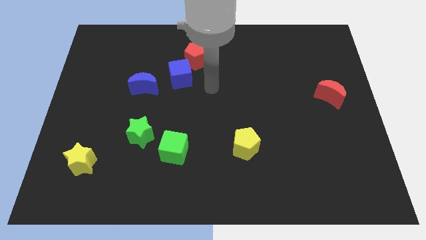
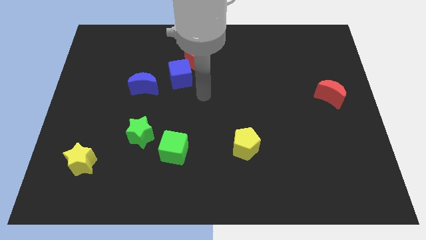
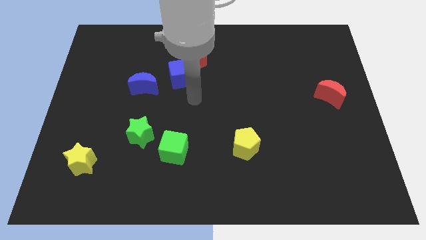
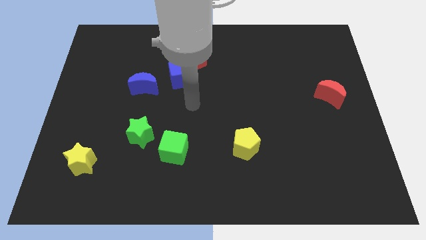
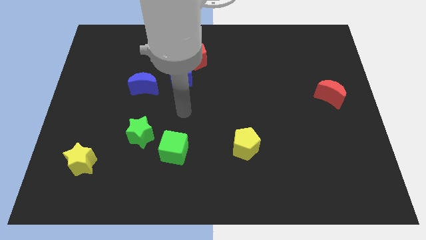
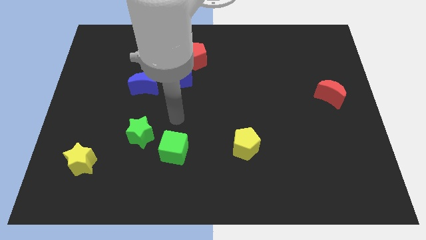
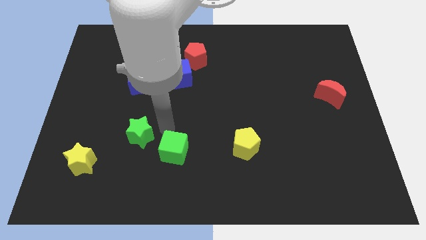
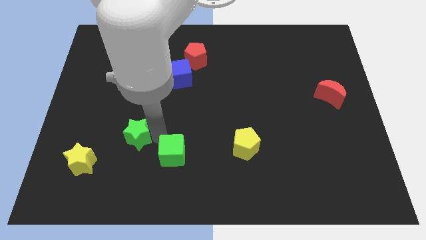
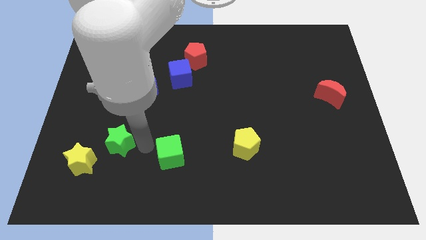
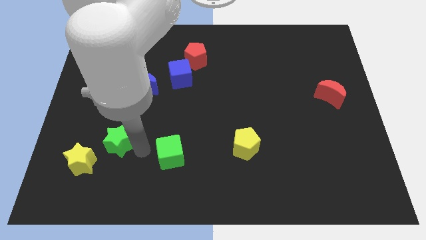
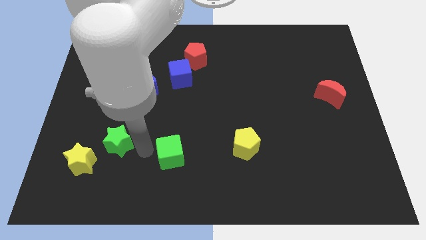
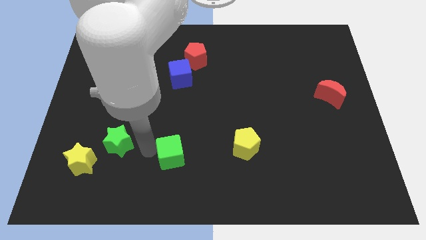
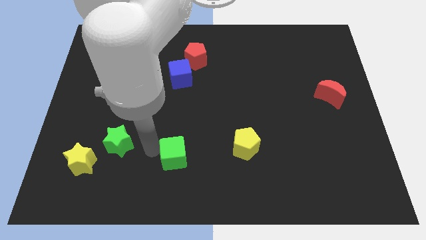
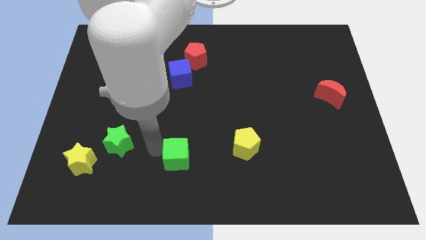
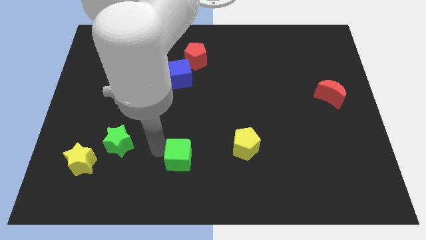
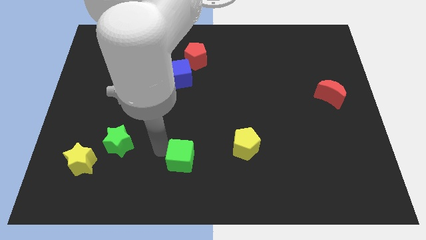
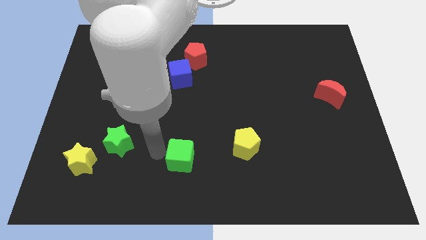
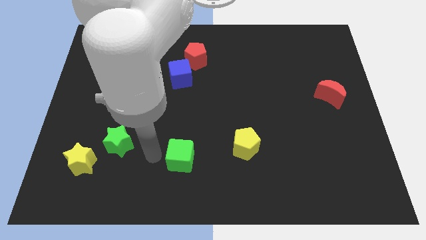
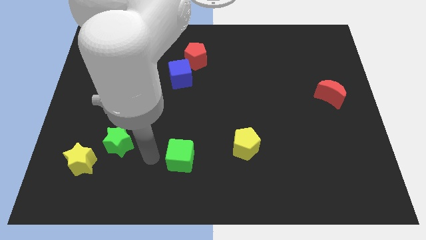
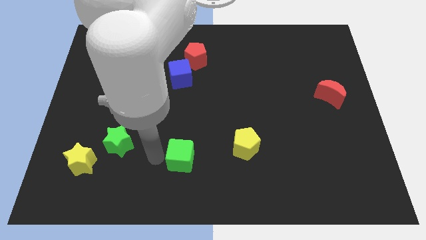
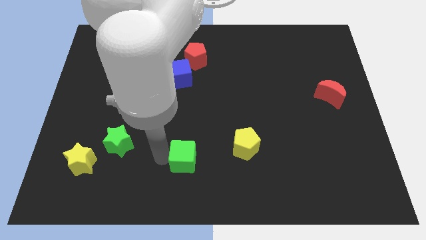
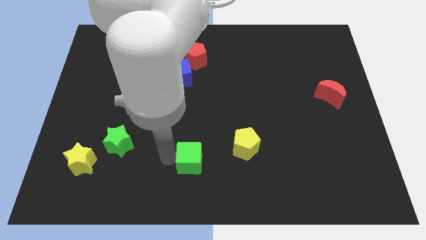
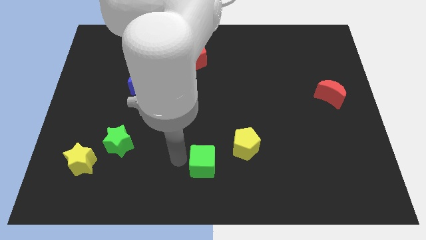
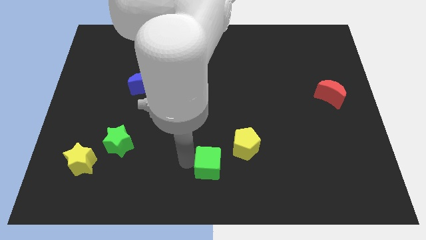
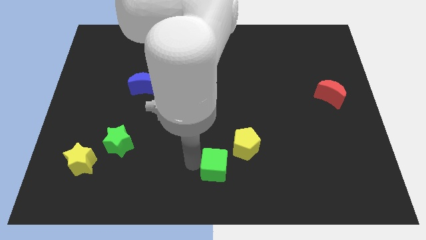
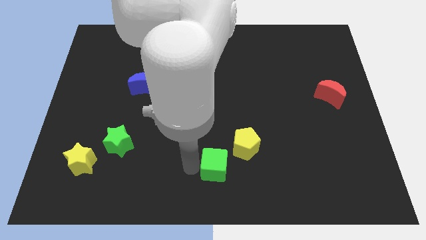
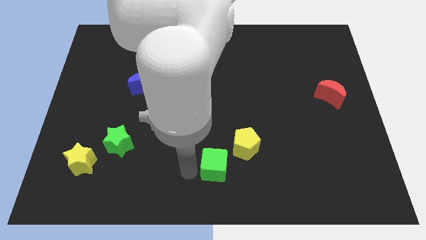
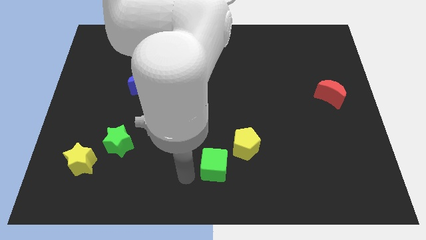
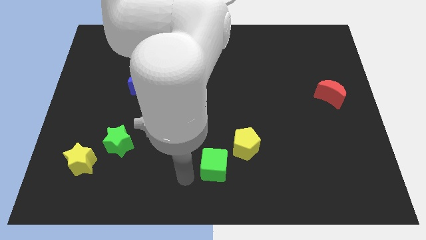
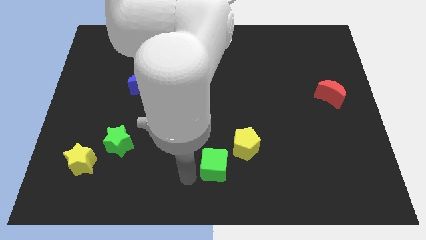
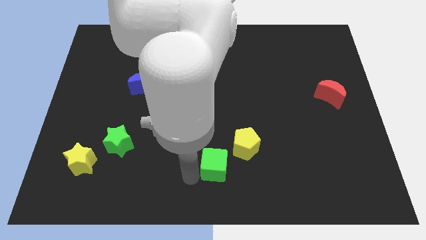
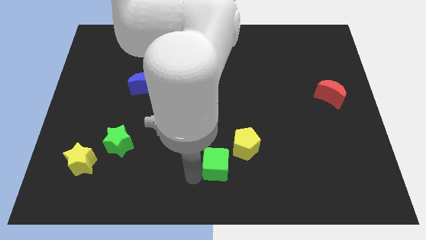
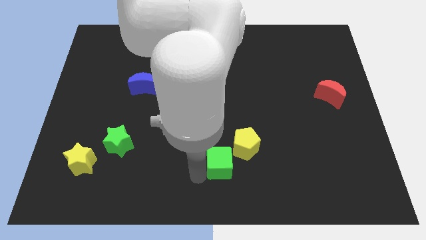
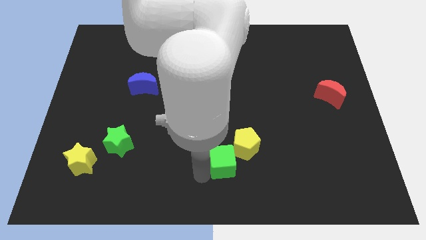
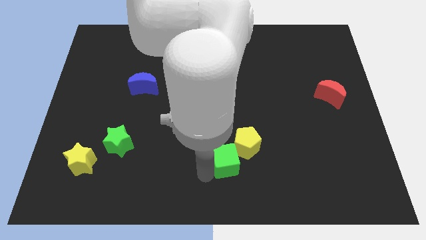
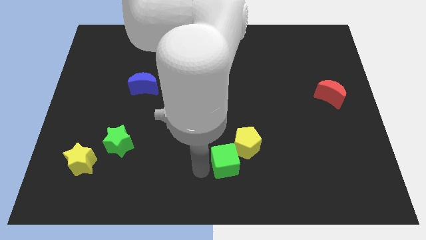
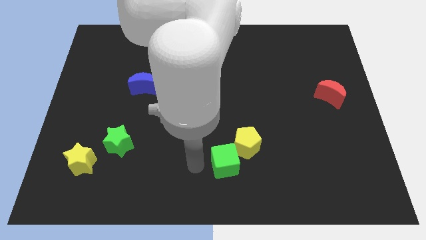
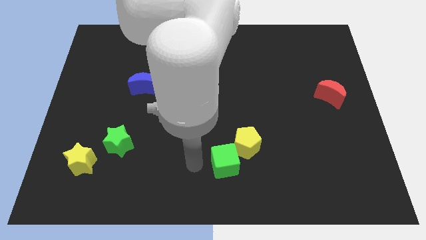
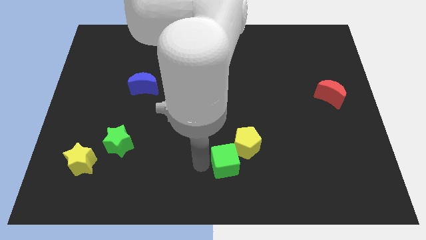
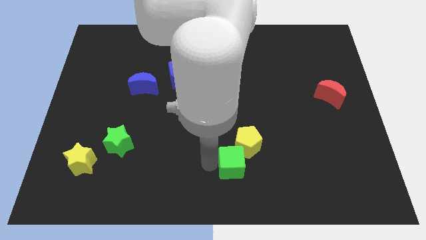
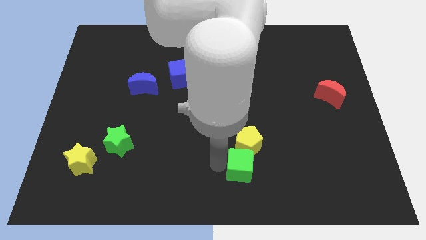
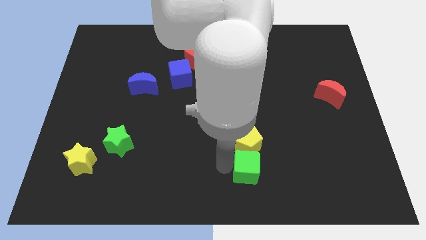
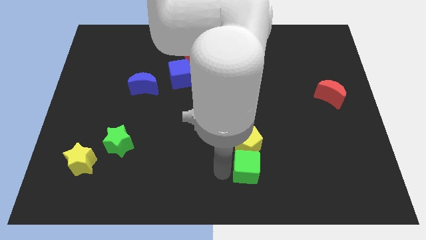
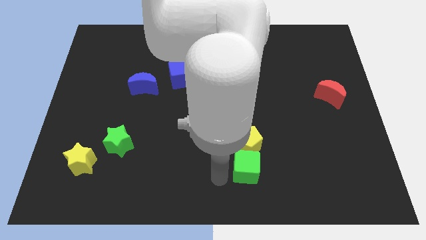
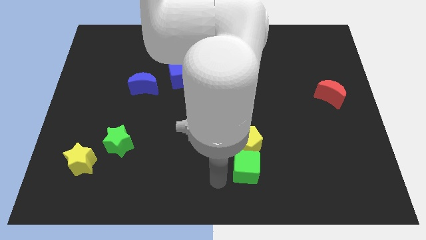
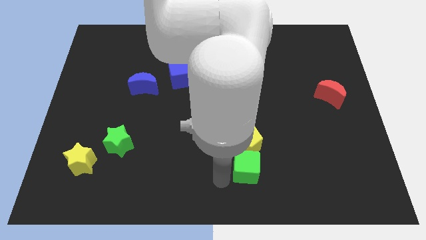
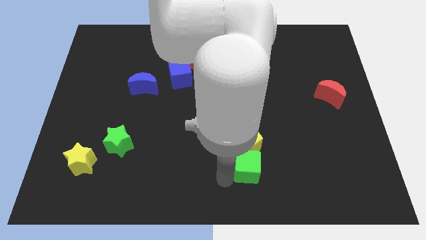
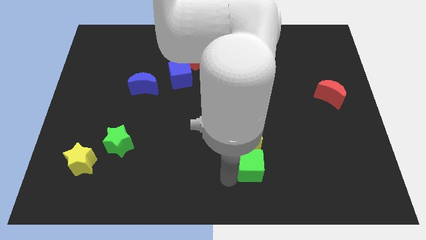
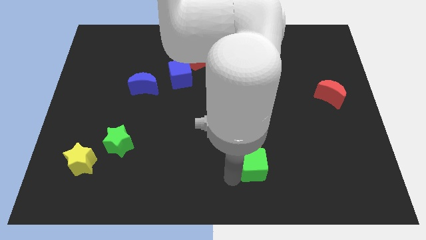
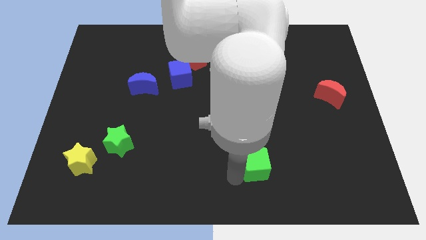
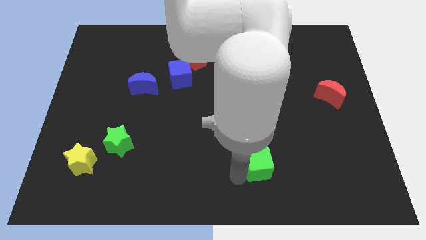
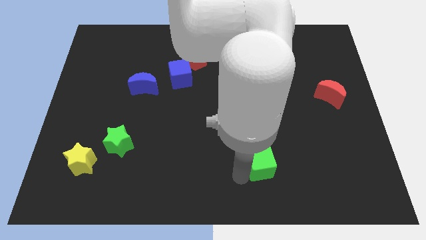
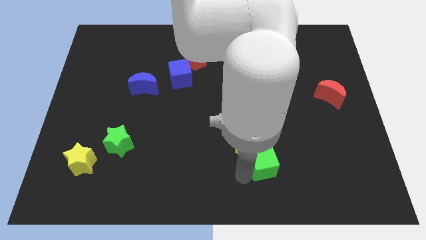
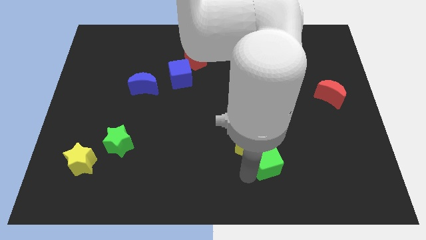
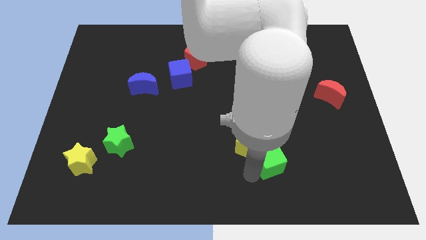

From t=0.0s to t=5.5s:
push the green cube right

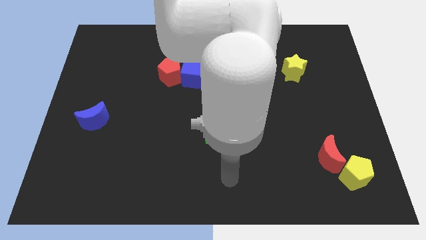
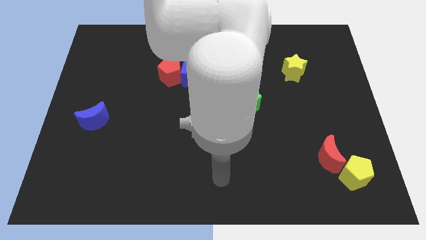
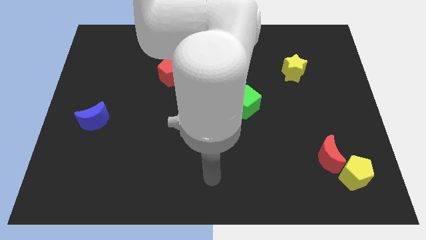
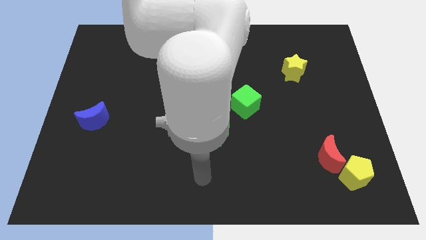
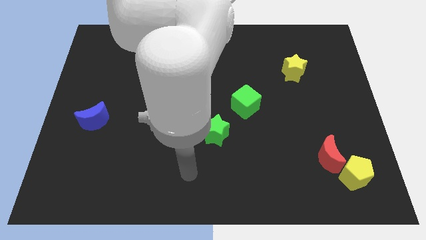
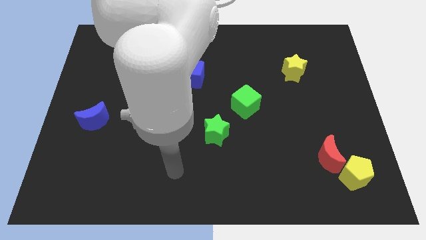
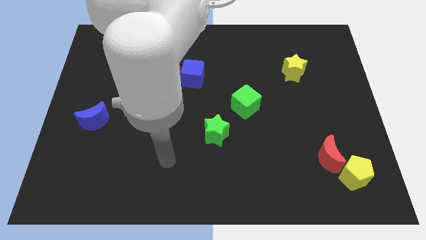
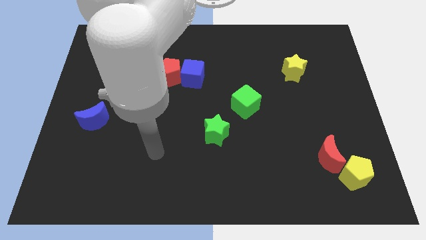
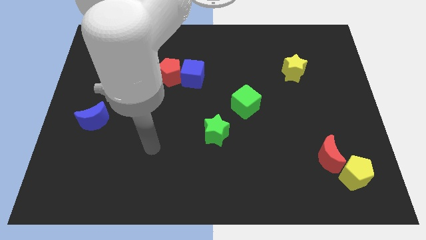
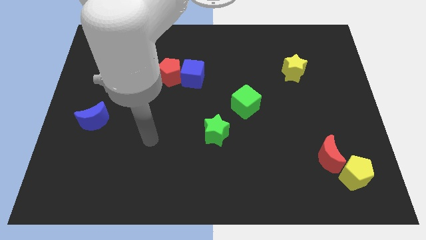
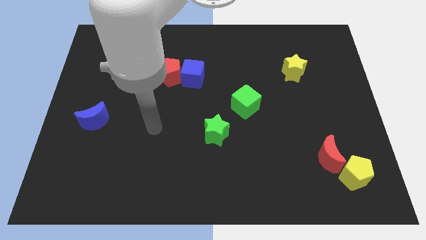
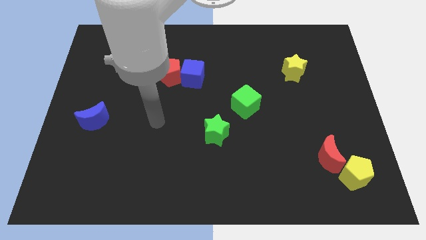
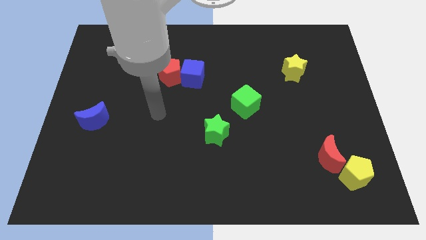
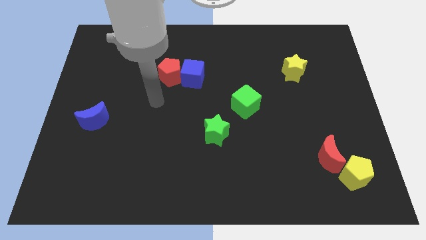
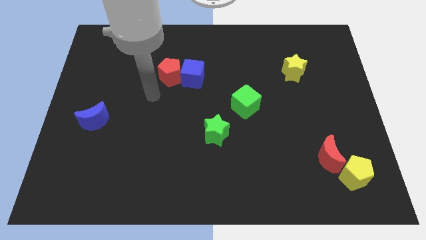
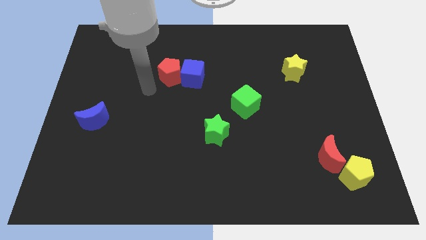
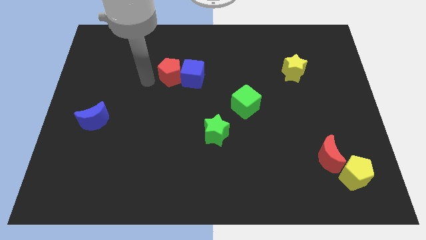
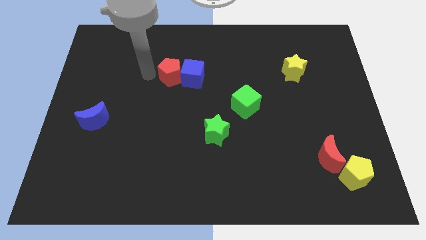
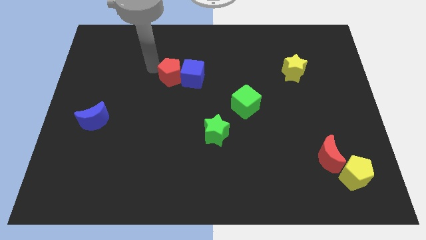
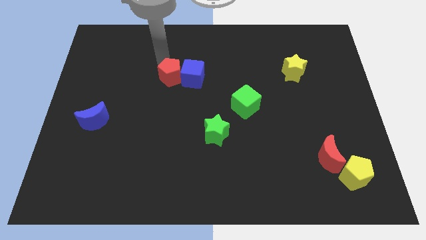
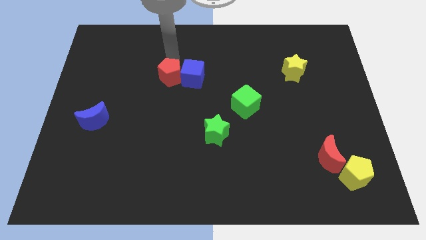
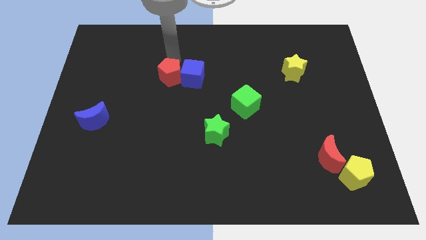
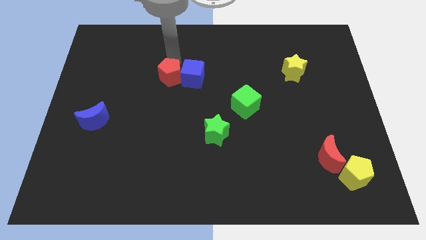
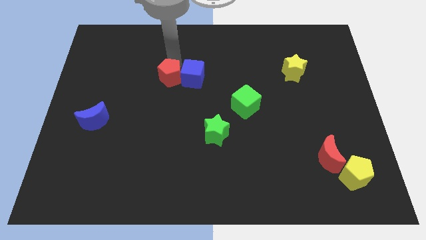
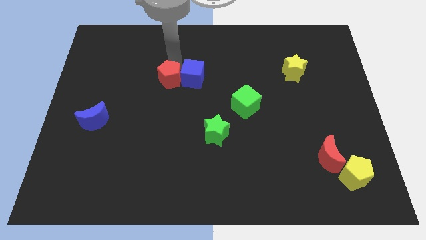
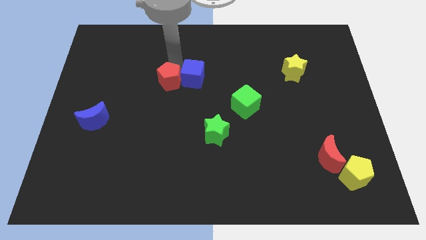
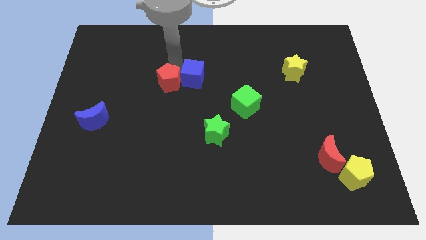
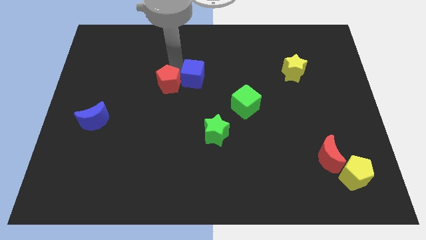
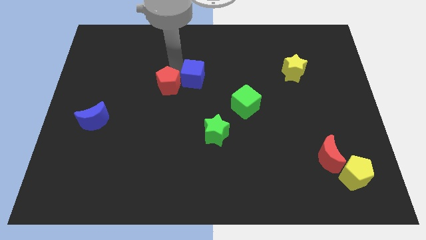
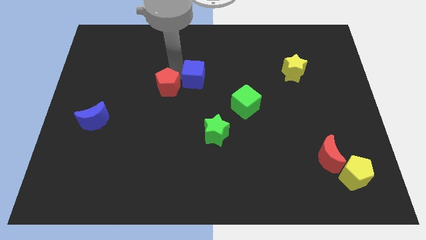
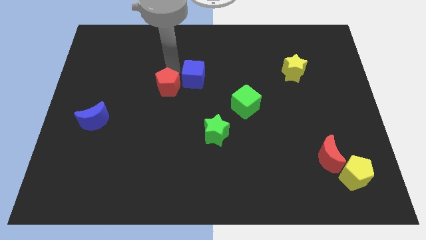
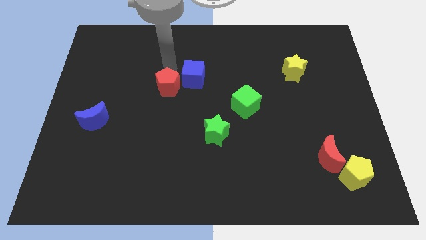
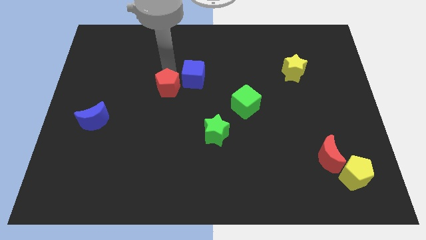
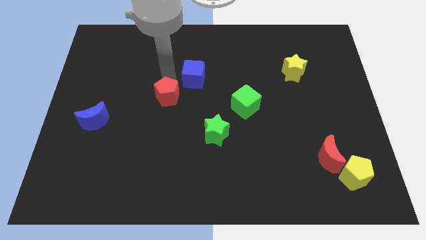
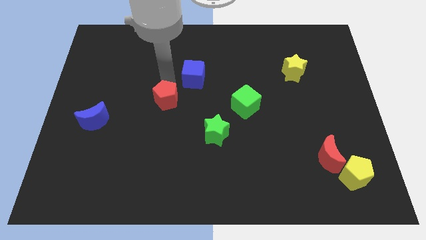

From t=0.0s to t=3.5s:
move the red pentagon down a little
